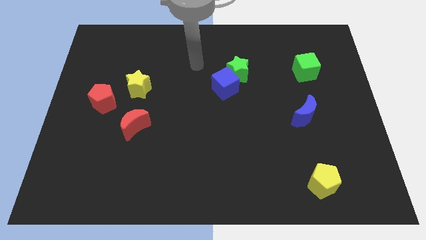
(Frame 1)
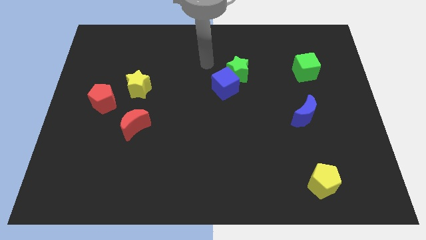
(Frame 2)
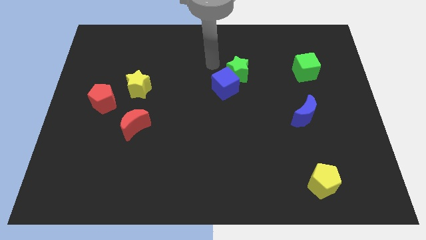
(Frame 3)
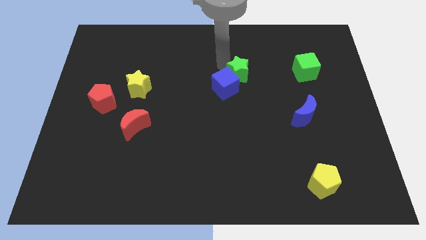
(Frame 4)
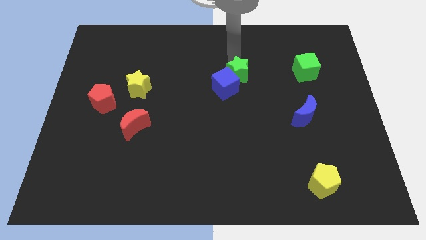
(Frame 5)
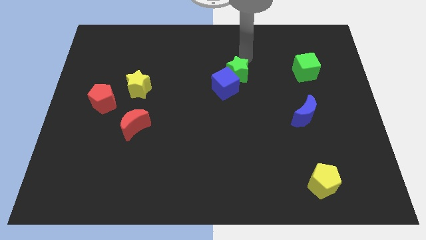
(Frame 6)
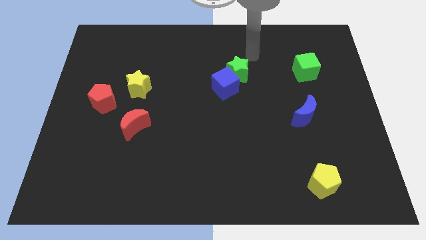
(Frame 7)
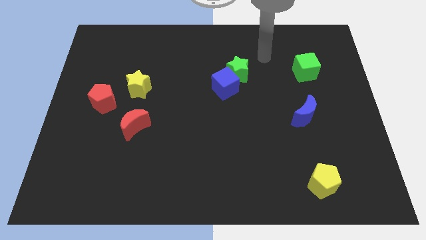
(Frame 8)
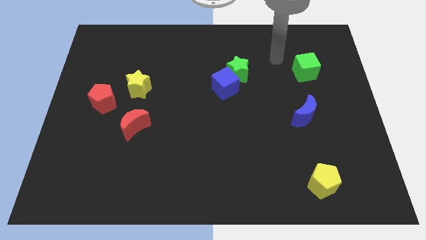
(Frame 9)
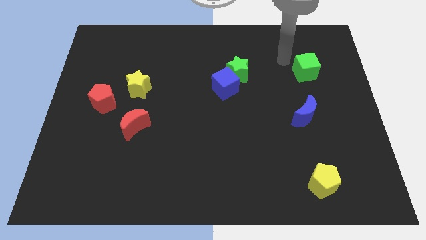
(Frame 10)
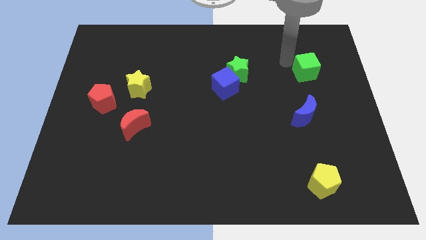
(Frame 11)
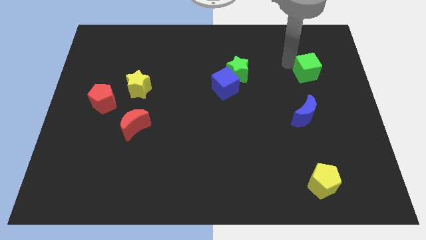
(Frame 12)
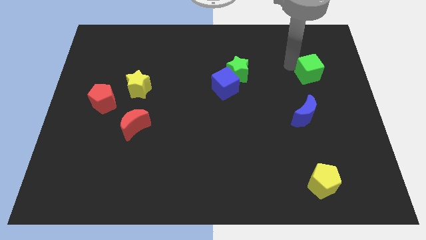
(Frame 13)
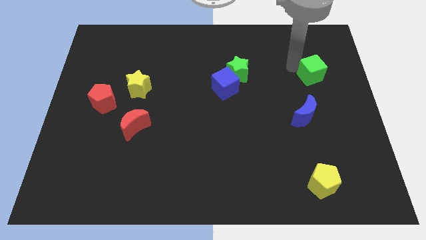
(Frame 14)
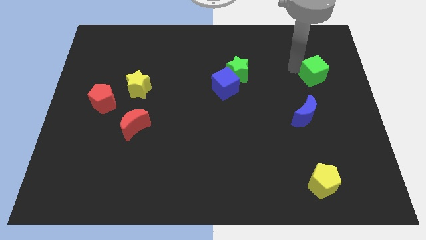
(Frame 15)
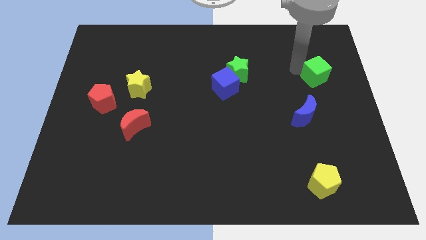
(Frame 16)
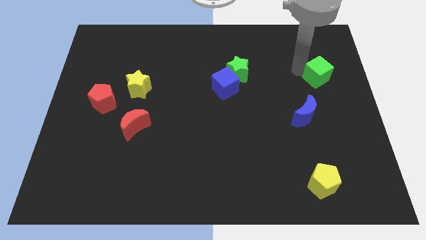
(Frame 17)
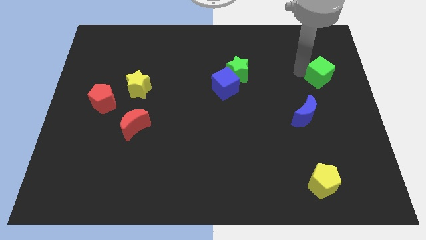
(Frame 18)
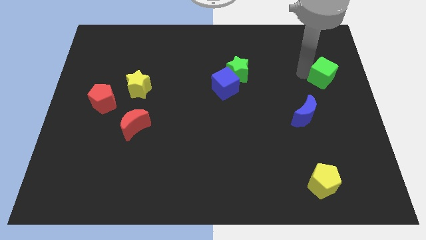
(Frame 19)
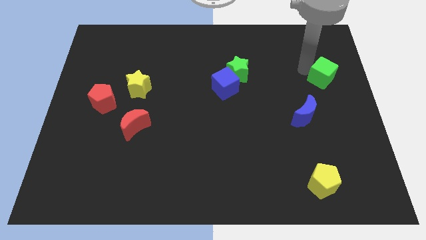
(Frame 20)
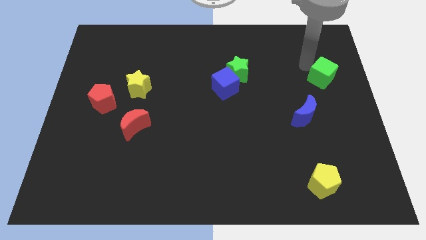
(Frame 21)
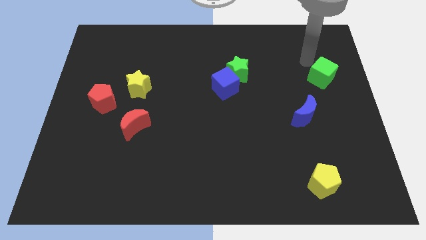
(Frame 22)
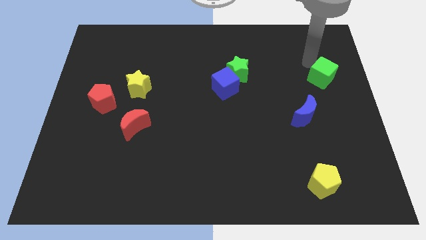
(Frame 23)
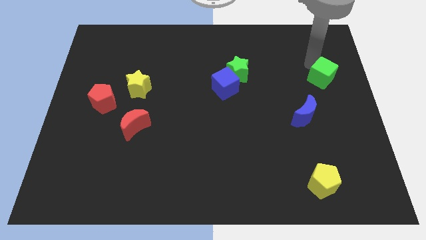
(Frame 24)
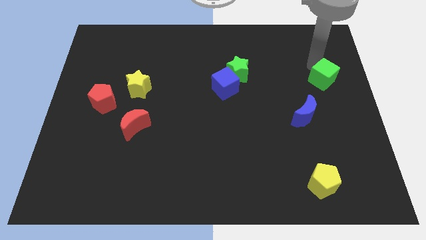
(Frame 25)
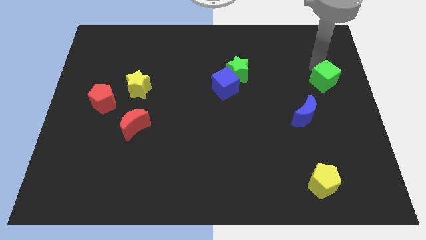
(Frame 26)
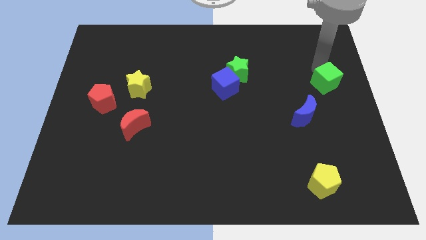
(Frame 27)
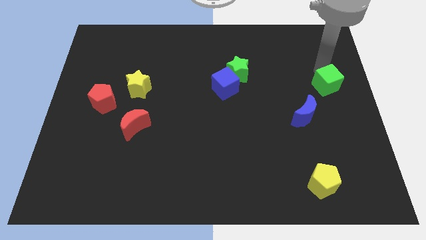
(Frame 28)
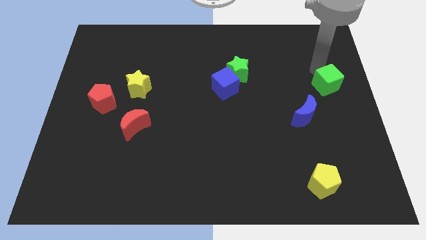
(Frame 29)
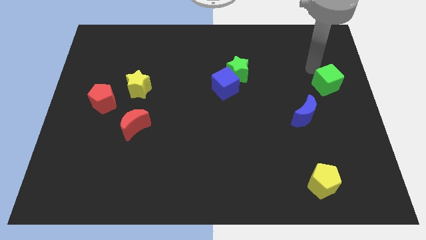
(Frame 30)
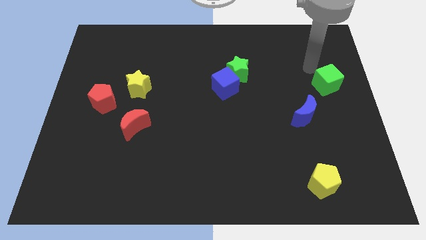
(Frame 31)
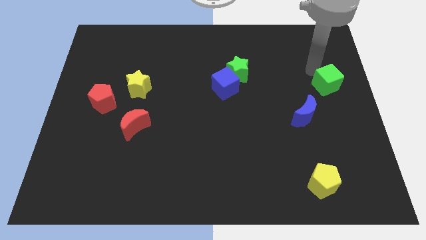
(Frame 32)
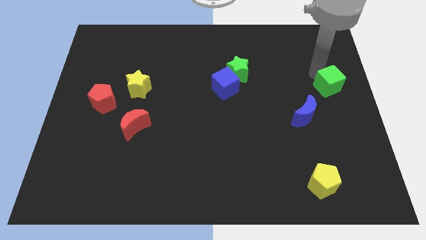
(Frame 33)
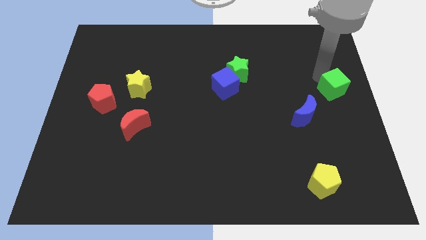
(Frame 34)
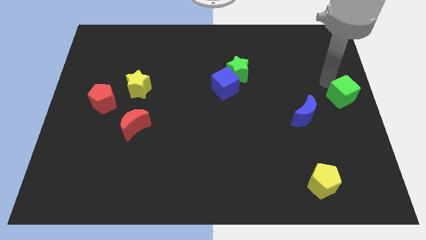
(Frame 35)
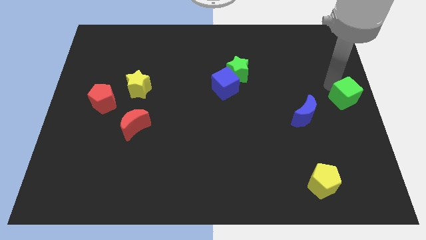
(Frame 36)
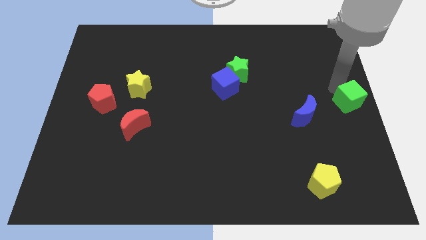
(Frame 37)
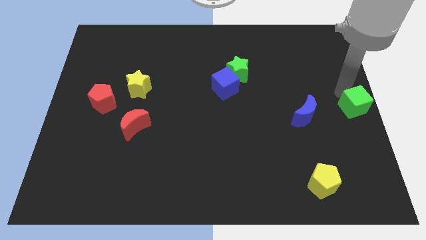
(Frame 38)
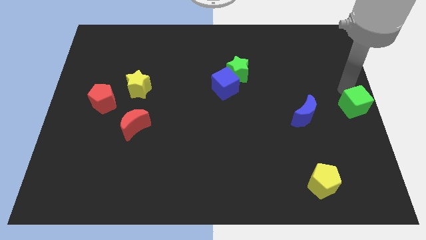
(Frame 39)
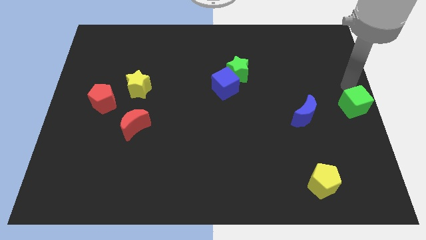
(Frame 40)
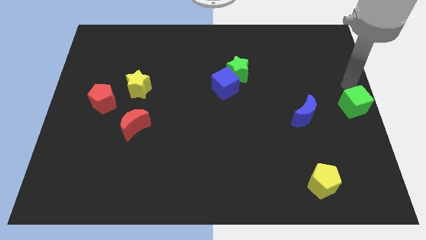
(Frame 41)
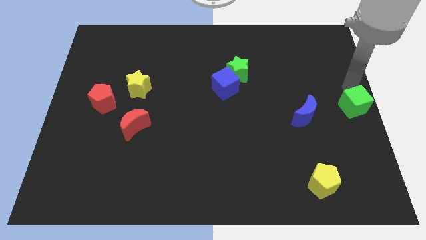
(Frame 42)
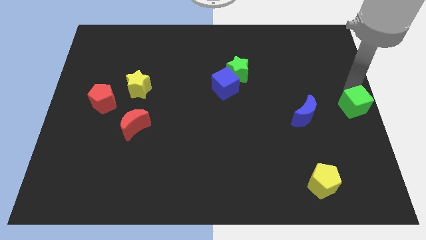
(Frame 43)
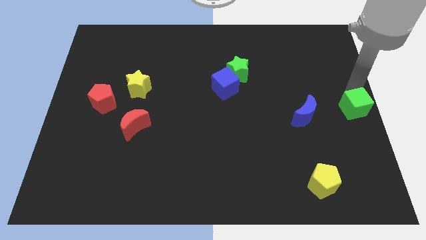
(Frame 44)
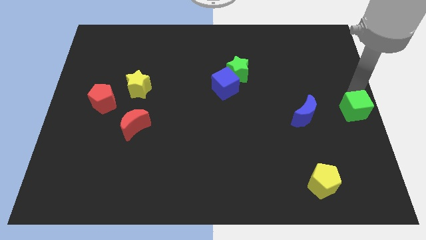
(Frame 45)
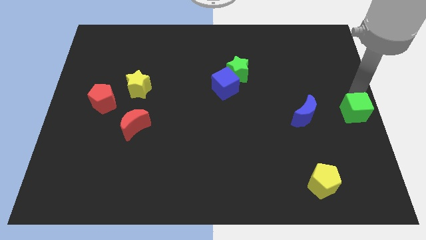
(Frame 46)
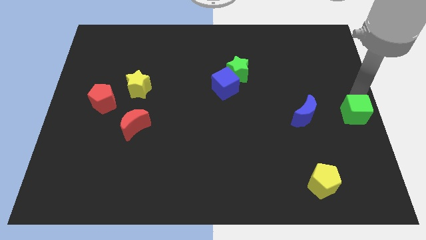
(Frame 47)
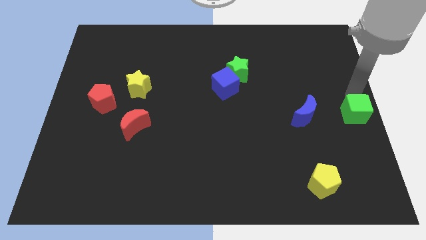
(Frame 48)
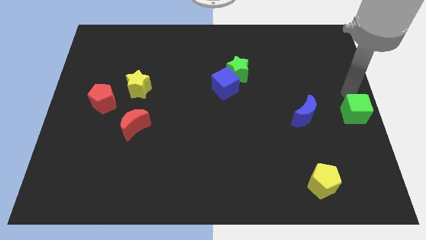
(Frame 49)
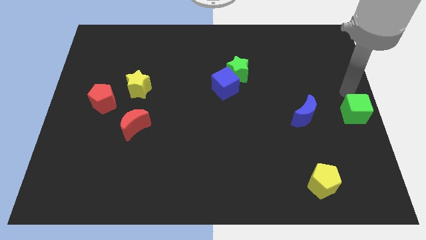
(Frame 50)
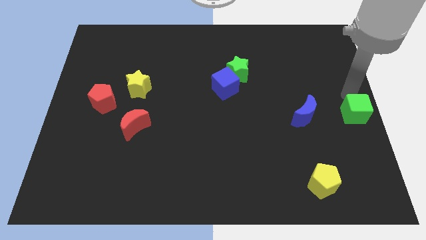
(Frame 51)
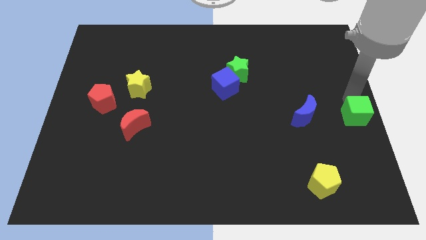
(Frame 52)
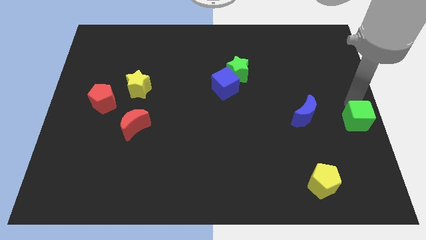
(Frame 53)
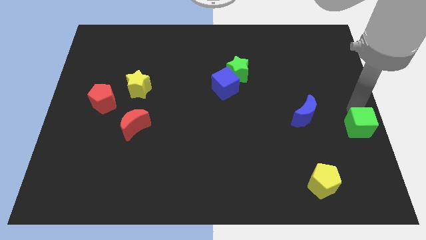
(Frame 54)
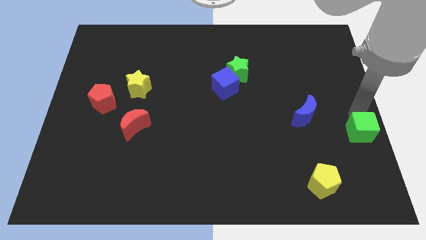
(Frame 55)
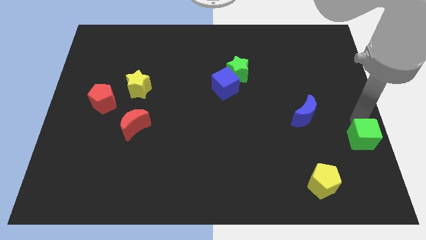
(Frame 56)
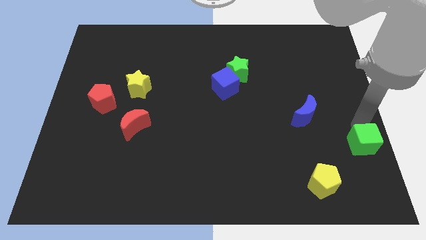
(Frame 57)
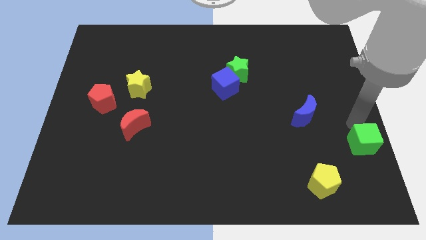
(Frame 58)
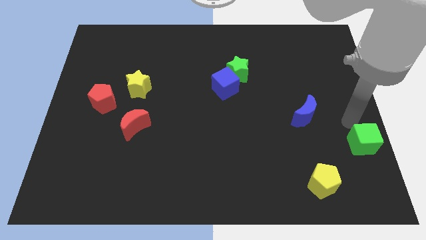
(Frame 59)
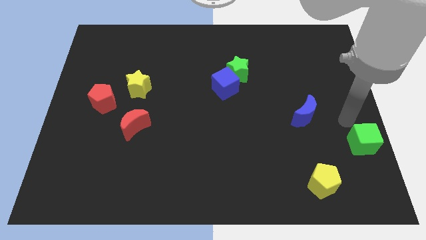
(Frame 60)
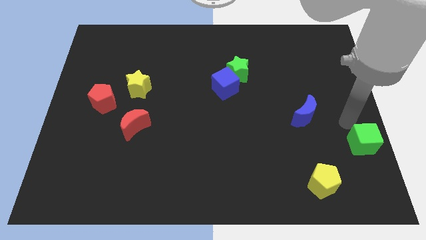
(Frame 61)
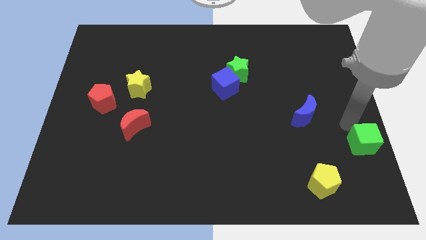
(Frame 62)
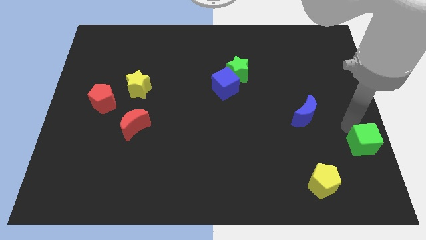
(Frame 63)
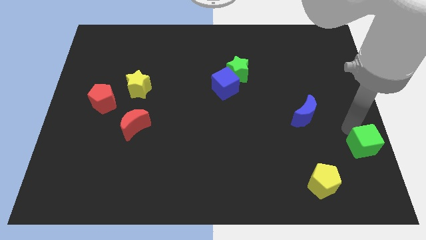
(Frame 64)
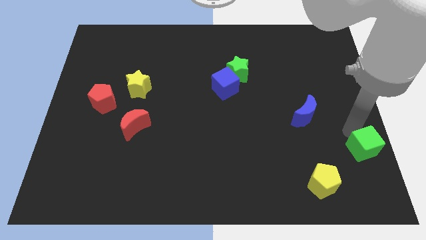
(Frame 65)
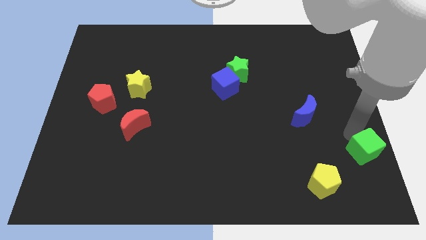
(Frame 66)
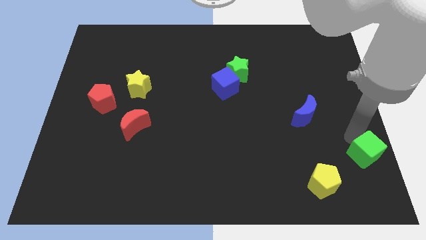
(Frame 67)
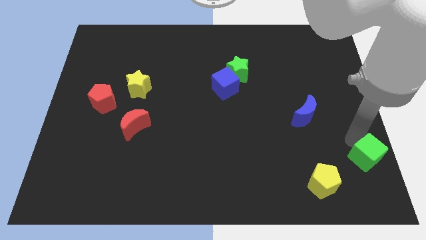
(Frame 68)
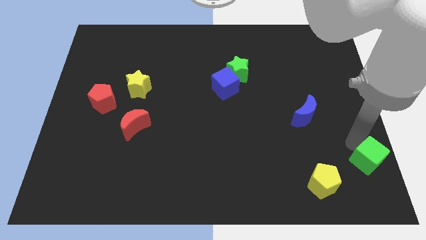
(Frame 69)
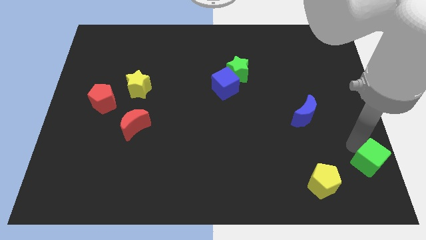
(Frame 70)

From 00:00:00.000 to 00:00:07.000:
slide the green cube to the bottom right
